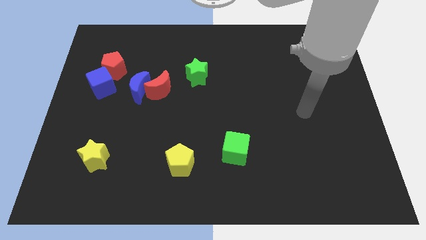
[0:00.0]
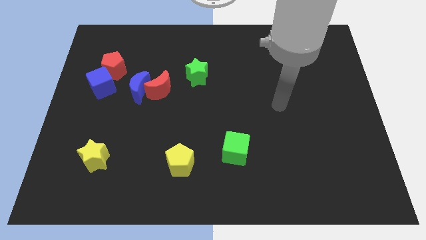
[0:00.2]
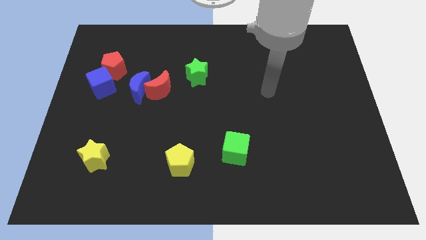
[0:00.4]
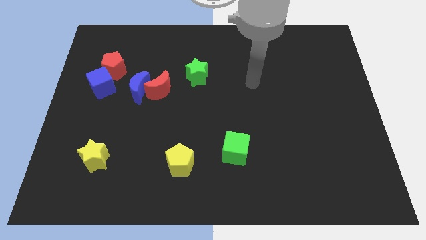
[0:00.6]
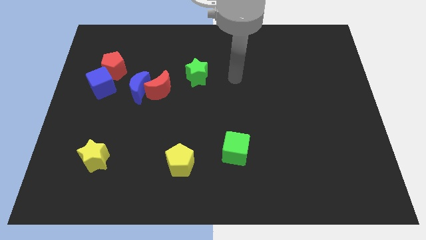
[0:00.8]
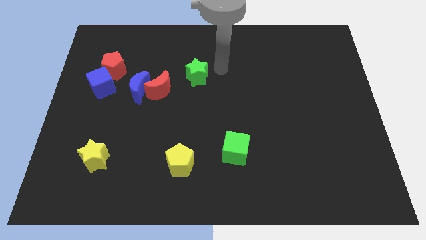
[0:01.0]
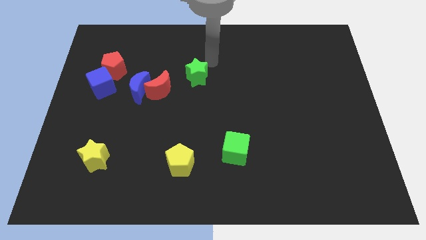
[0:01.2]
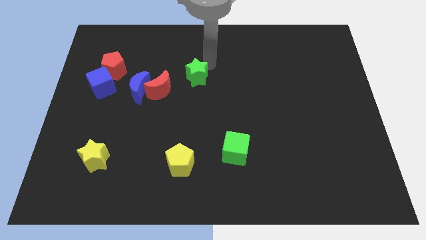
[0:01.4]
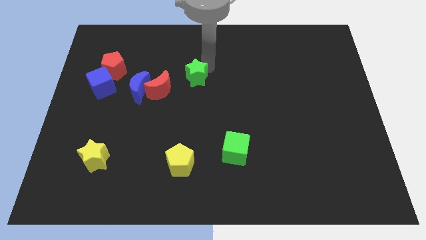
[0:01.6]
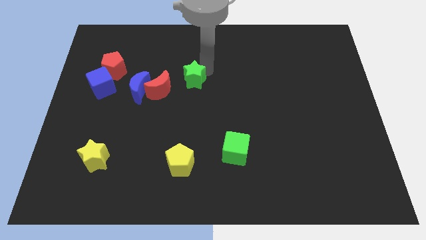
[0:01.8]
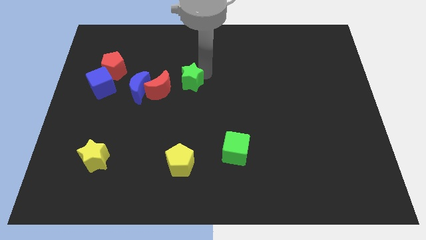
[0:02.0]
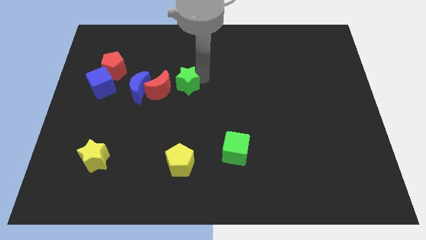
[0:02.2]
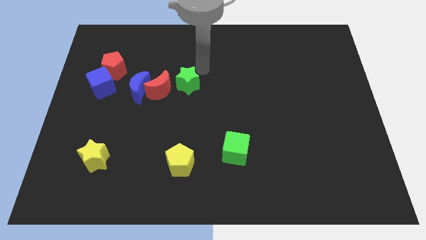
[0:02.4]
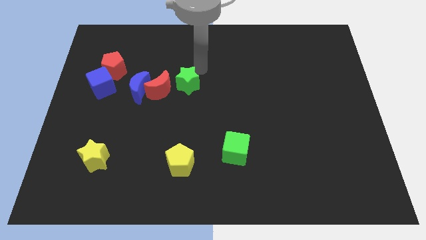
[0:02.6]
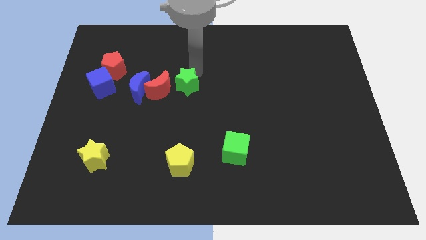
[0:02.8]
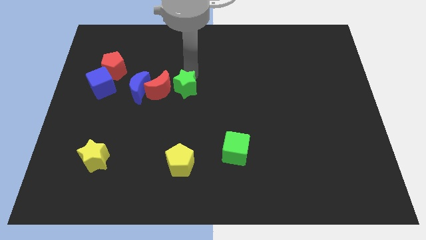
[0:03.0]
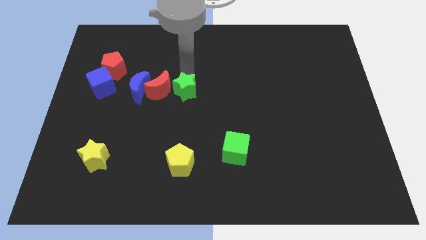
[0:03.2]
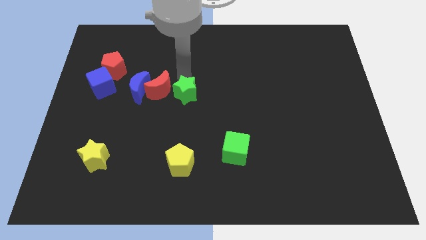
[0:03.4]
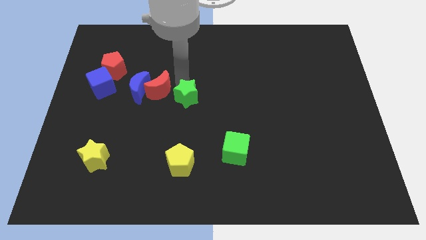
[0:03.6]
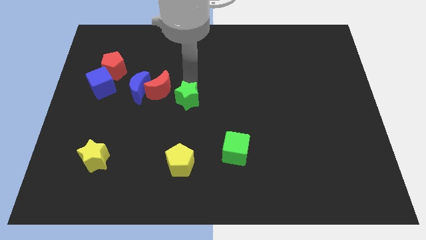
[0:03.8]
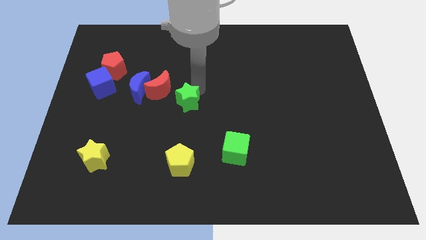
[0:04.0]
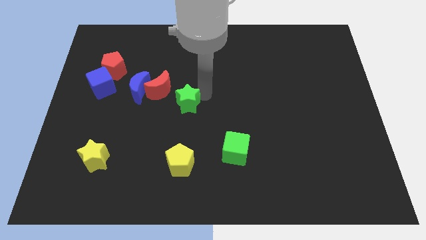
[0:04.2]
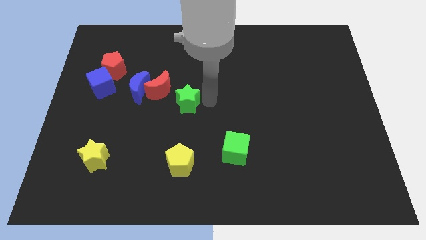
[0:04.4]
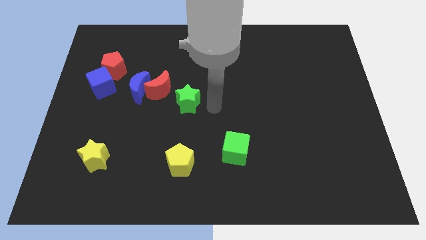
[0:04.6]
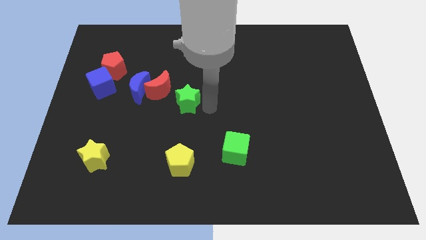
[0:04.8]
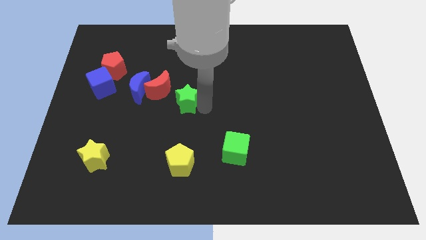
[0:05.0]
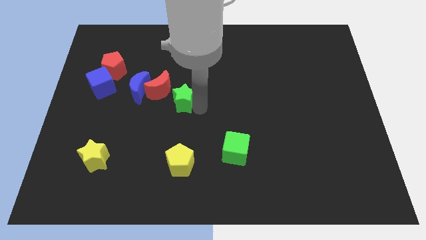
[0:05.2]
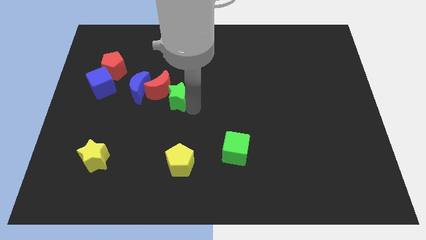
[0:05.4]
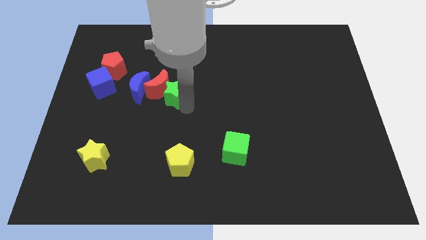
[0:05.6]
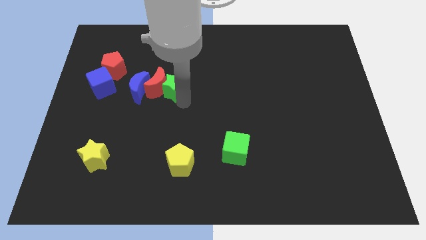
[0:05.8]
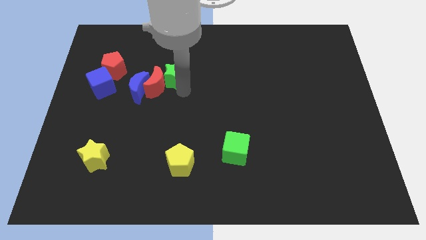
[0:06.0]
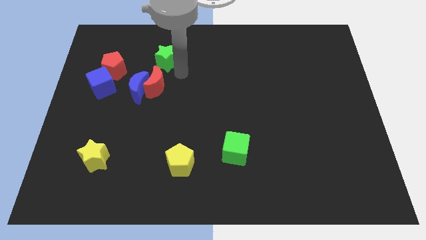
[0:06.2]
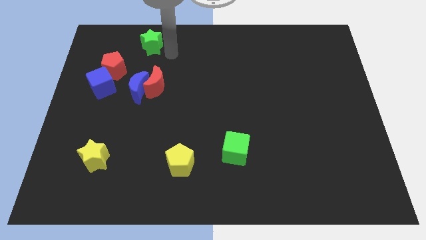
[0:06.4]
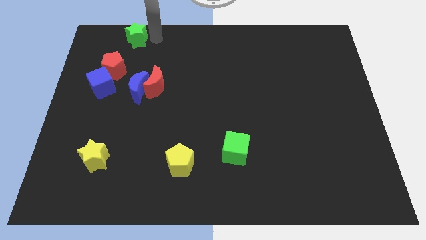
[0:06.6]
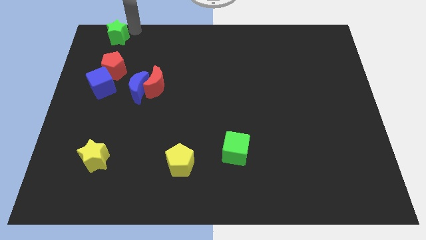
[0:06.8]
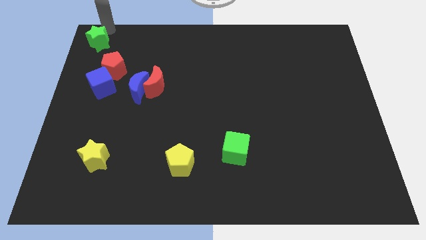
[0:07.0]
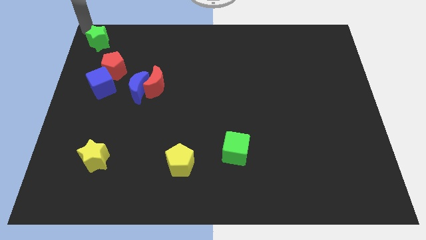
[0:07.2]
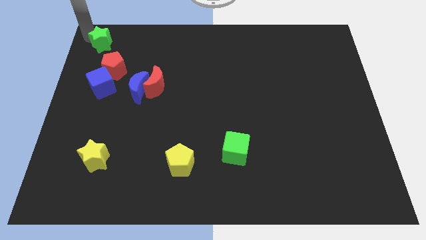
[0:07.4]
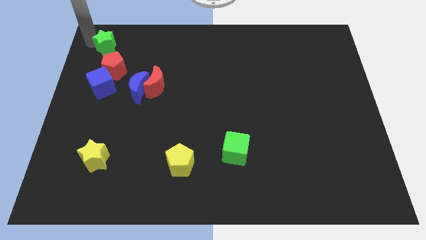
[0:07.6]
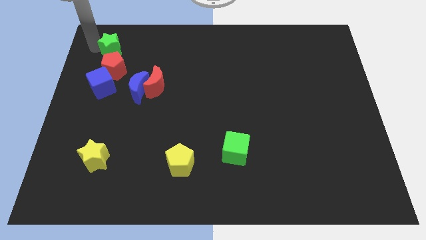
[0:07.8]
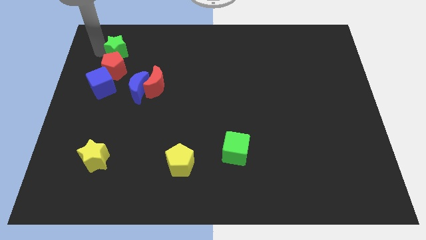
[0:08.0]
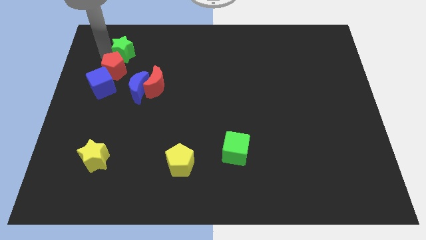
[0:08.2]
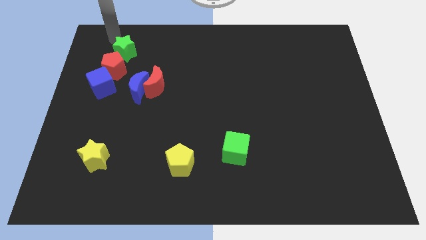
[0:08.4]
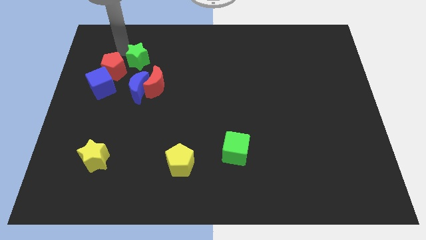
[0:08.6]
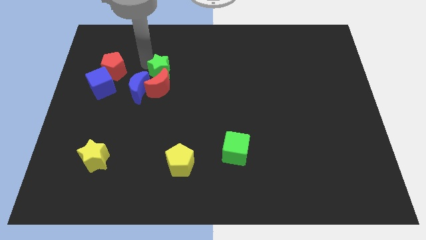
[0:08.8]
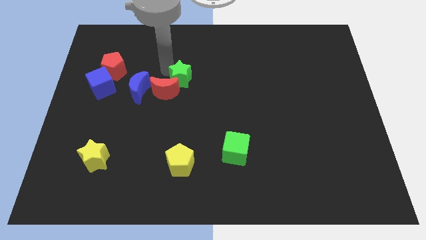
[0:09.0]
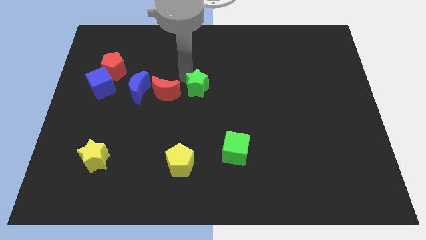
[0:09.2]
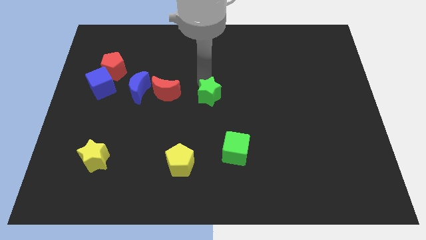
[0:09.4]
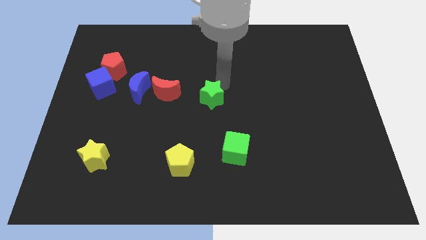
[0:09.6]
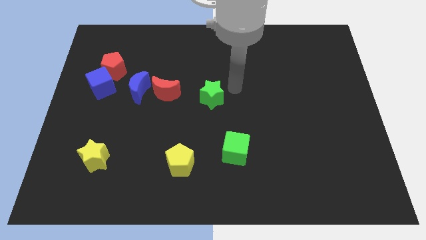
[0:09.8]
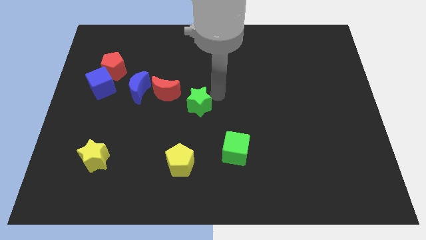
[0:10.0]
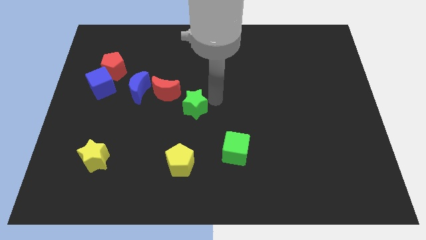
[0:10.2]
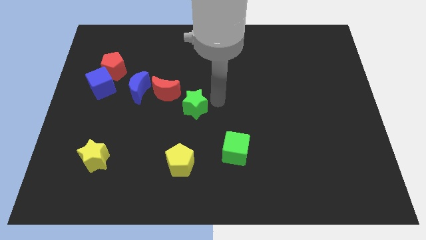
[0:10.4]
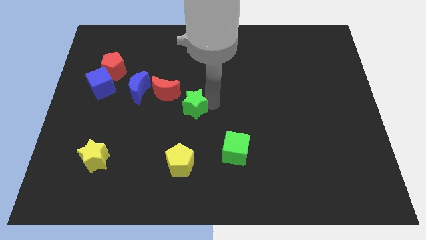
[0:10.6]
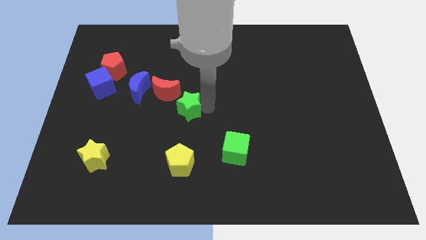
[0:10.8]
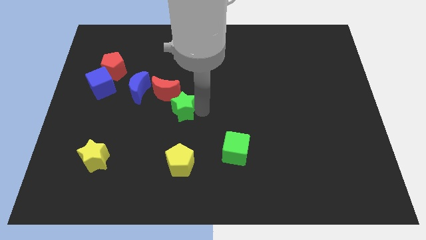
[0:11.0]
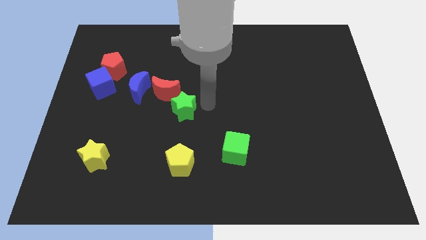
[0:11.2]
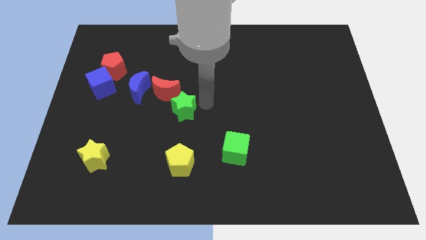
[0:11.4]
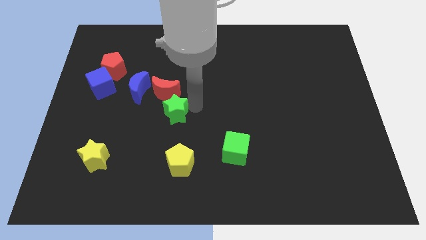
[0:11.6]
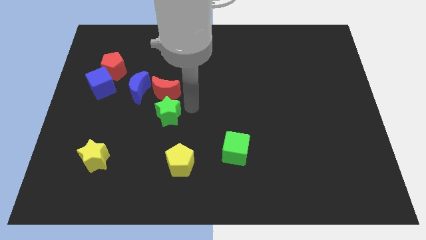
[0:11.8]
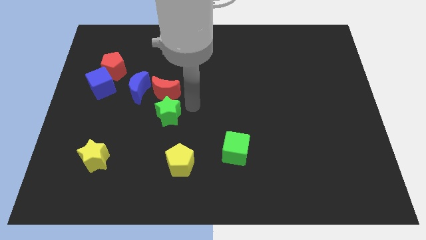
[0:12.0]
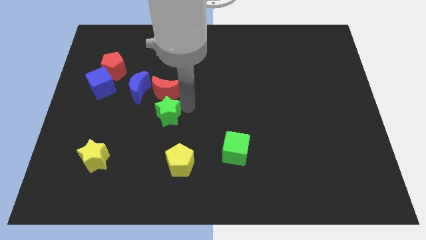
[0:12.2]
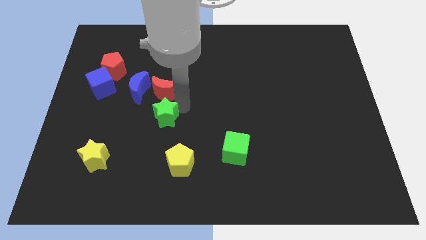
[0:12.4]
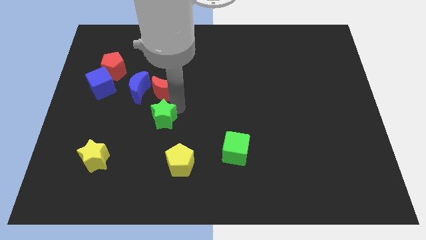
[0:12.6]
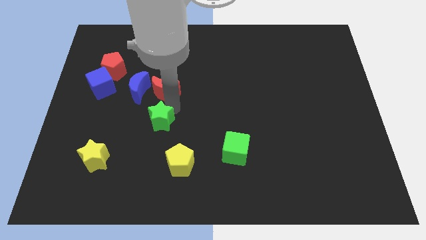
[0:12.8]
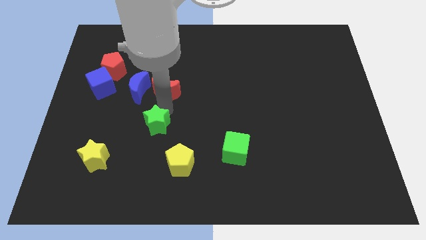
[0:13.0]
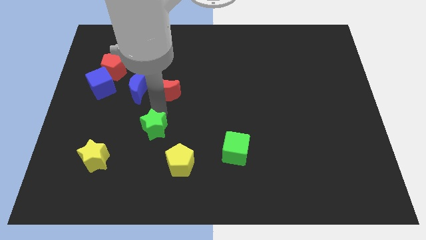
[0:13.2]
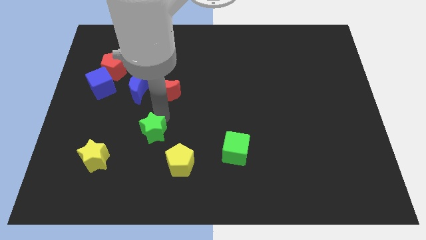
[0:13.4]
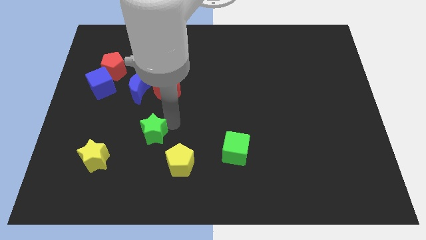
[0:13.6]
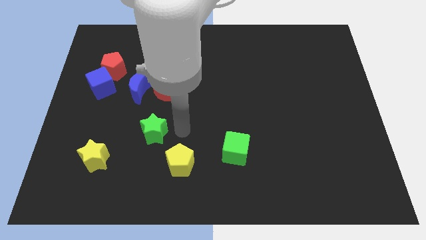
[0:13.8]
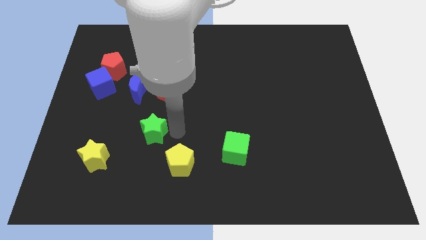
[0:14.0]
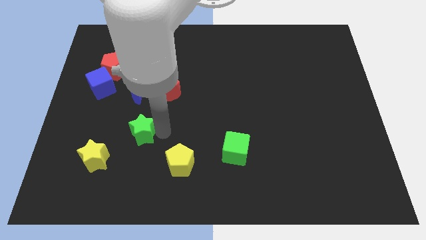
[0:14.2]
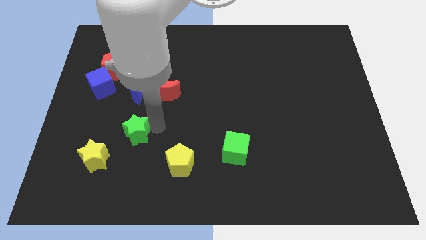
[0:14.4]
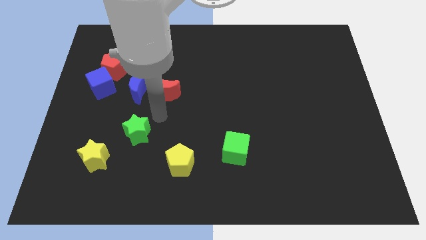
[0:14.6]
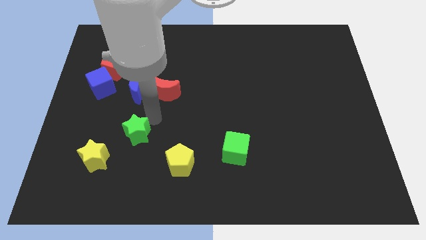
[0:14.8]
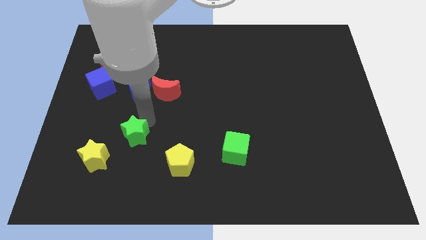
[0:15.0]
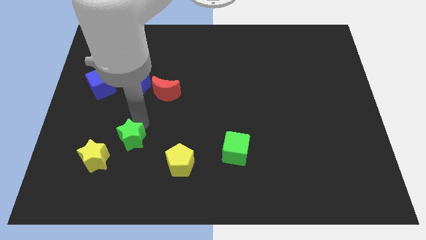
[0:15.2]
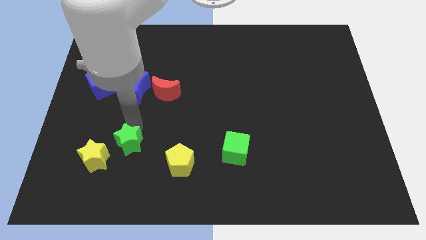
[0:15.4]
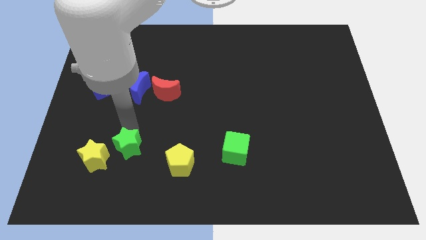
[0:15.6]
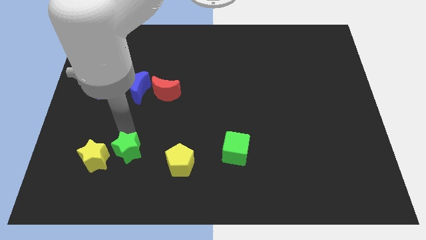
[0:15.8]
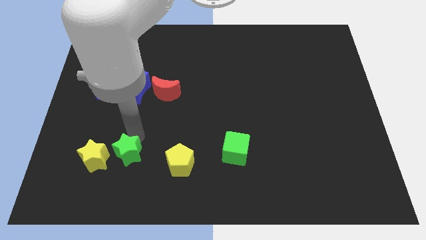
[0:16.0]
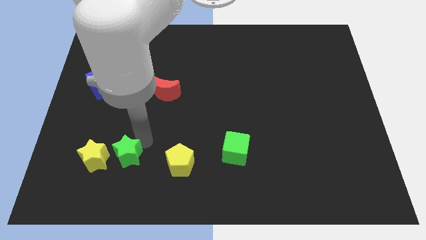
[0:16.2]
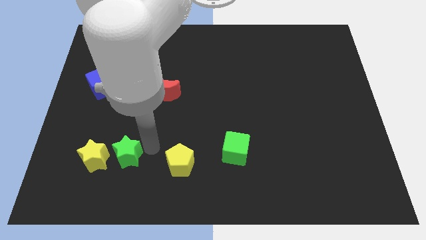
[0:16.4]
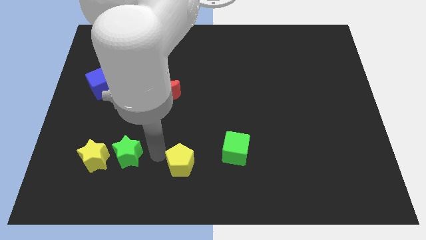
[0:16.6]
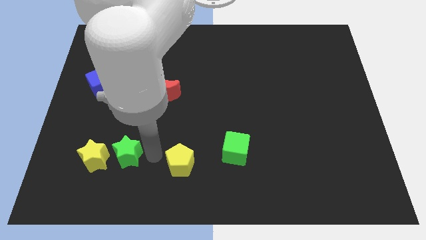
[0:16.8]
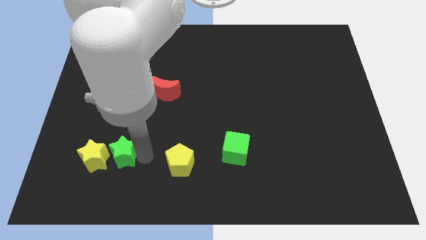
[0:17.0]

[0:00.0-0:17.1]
push the green star towards the yellow star
